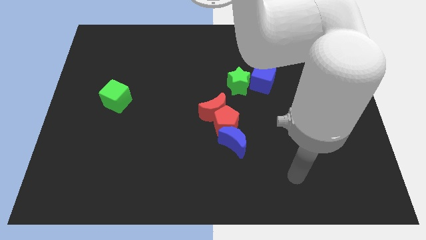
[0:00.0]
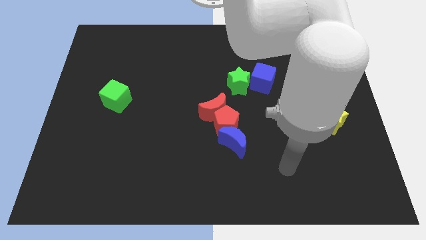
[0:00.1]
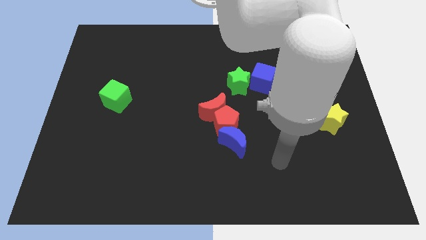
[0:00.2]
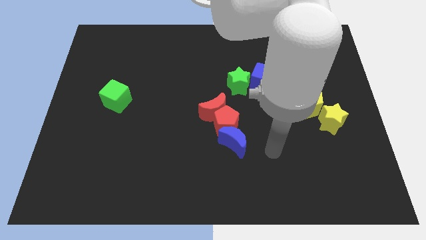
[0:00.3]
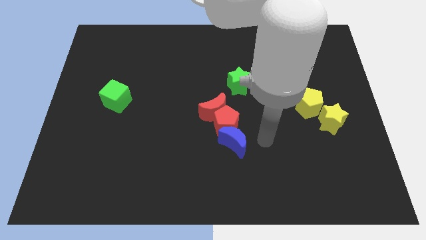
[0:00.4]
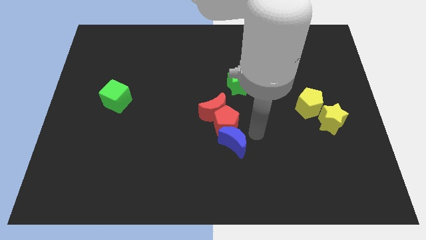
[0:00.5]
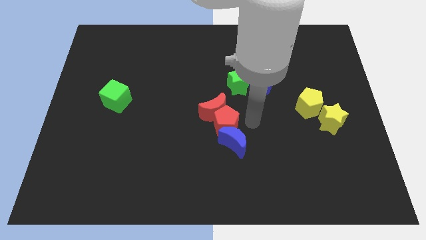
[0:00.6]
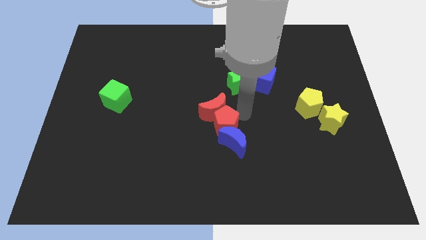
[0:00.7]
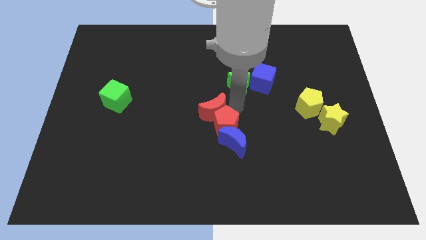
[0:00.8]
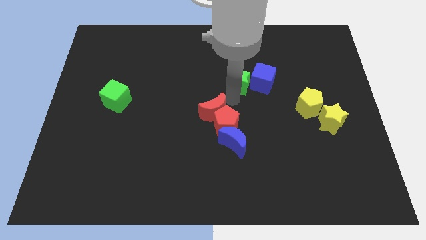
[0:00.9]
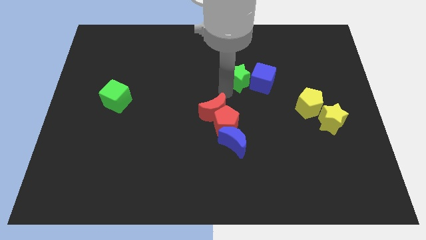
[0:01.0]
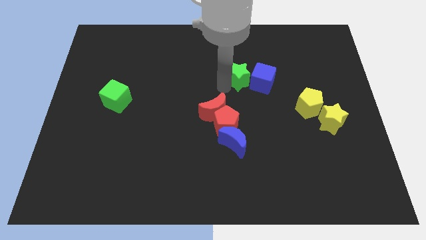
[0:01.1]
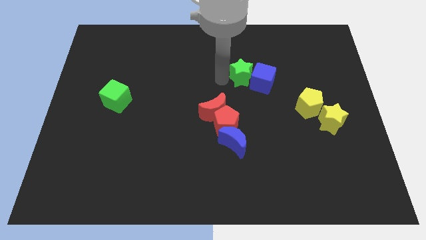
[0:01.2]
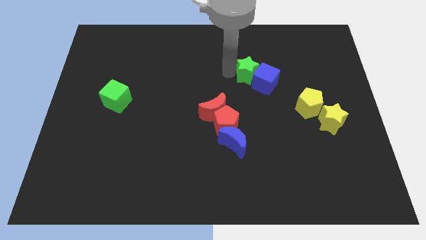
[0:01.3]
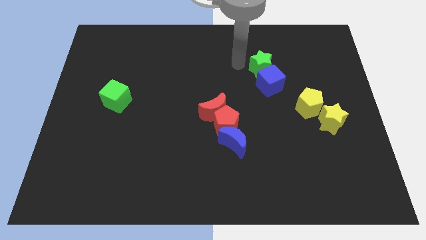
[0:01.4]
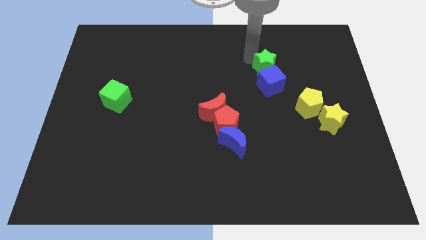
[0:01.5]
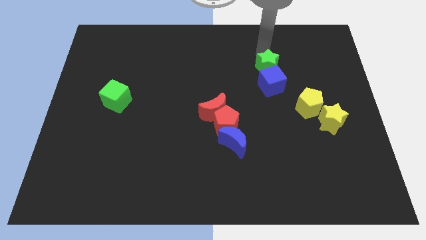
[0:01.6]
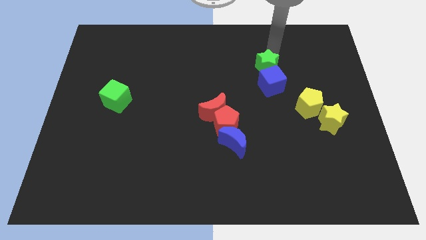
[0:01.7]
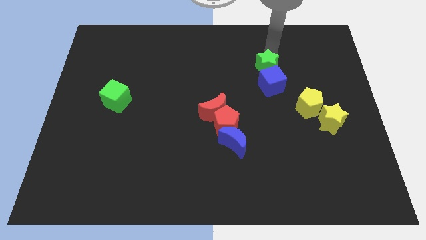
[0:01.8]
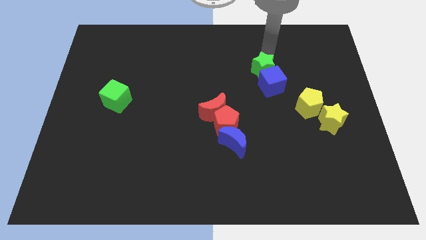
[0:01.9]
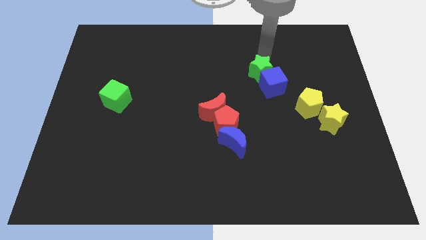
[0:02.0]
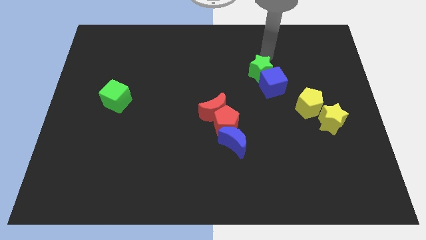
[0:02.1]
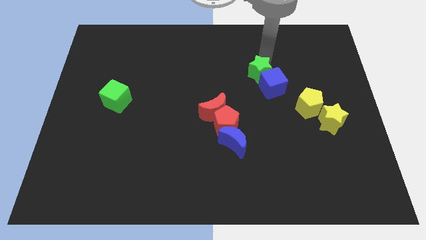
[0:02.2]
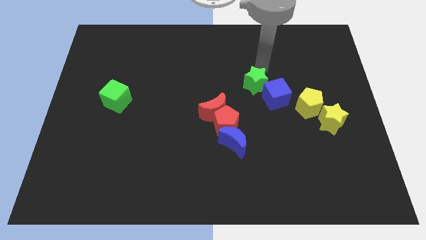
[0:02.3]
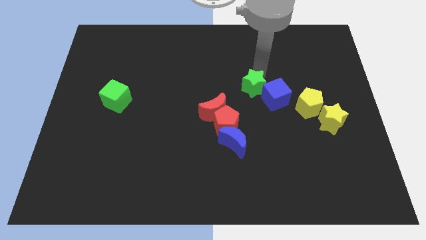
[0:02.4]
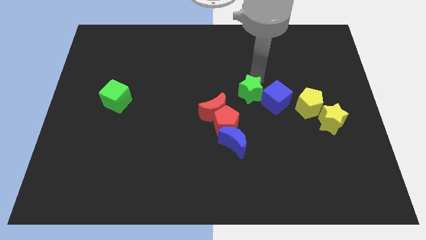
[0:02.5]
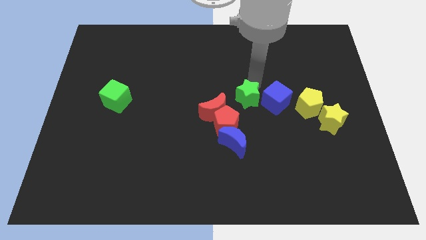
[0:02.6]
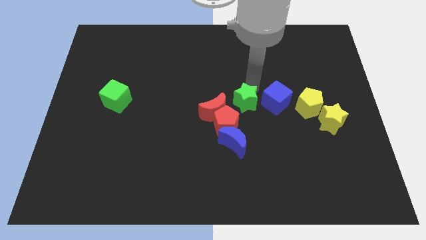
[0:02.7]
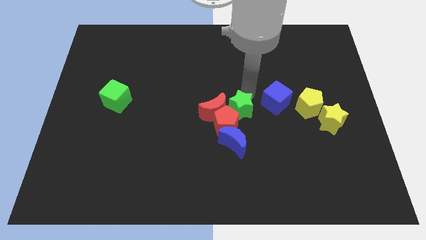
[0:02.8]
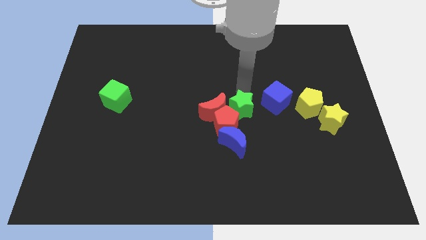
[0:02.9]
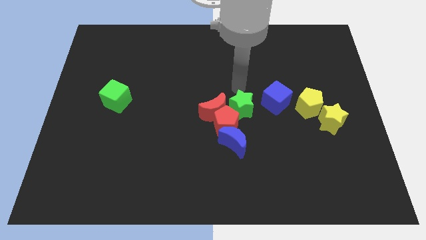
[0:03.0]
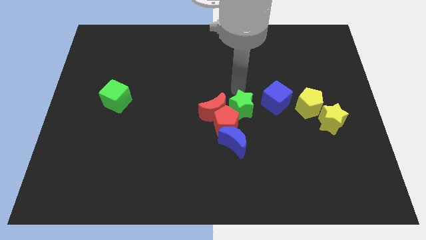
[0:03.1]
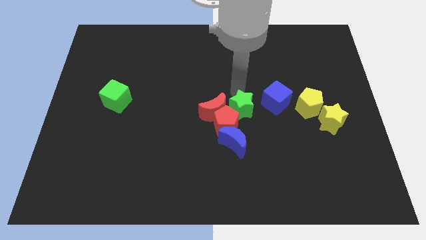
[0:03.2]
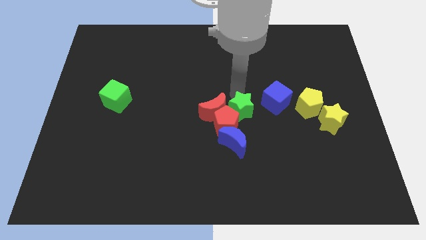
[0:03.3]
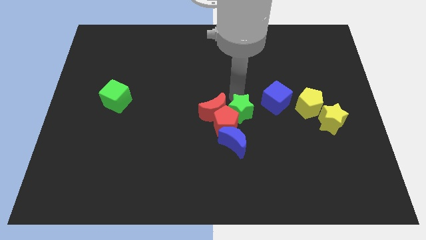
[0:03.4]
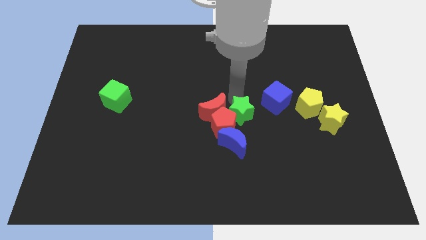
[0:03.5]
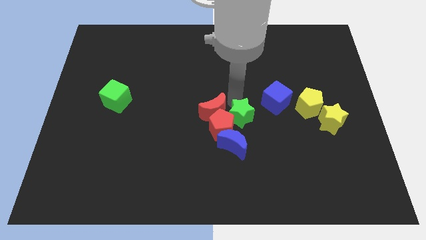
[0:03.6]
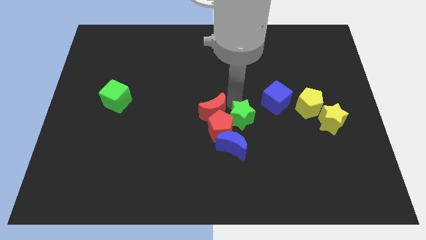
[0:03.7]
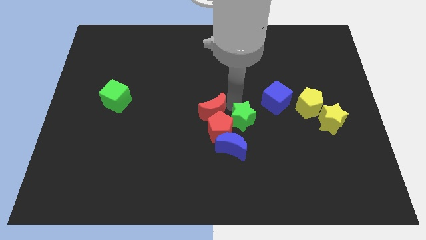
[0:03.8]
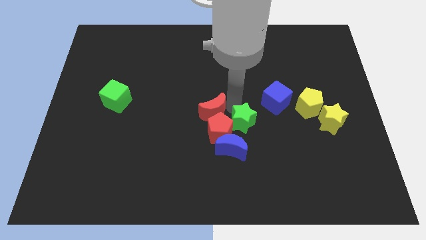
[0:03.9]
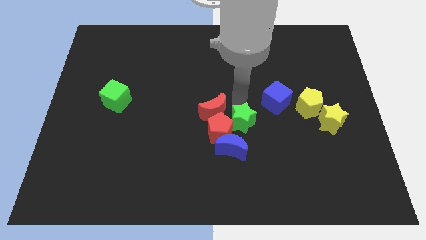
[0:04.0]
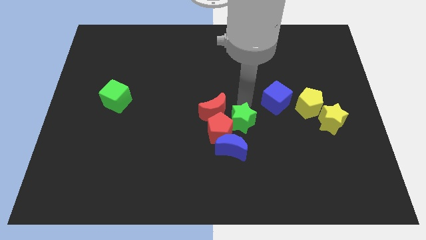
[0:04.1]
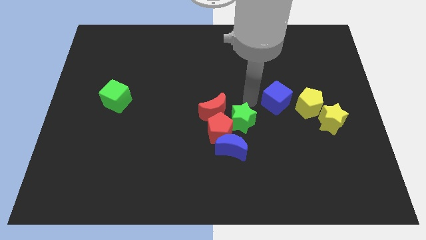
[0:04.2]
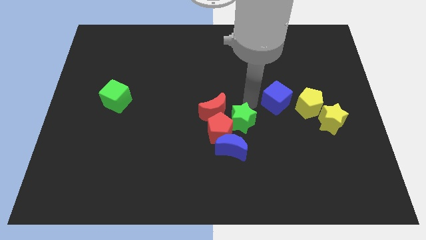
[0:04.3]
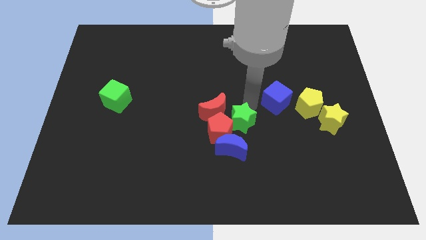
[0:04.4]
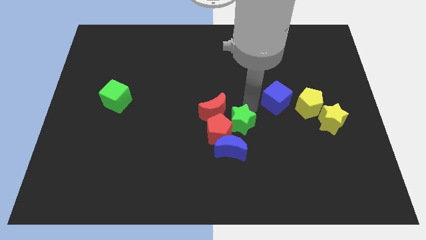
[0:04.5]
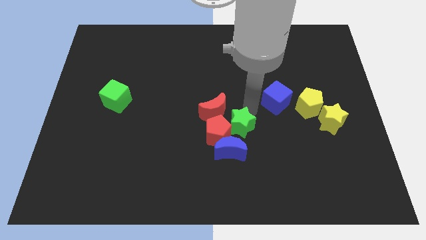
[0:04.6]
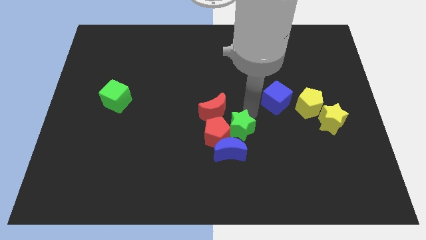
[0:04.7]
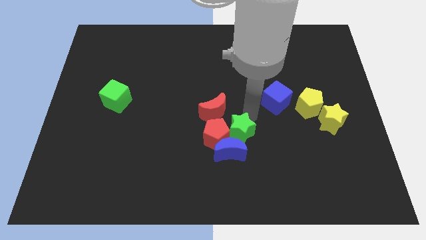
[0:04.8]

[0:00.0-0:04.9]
slide the green star next to the blue moon

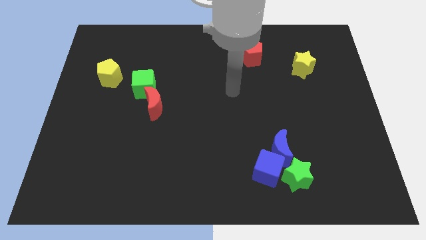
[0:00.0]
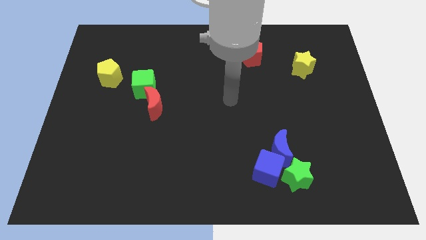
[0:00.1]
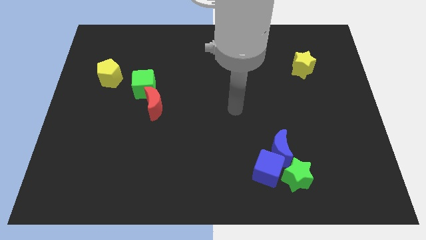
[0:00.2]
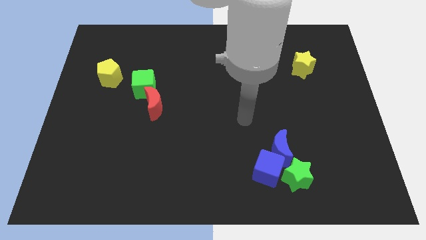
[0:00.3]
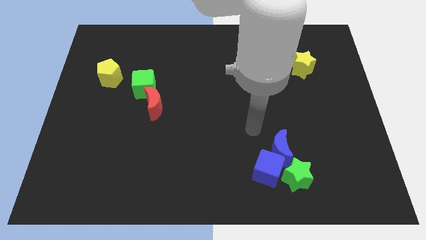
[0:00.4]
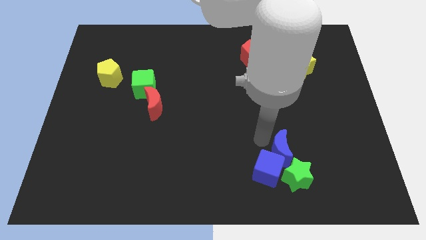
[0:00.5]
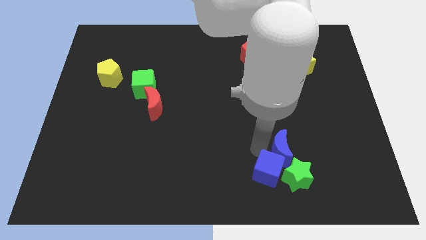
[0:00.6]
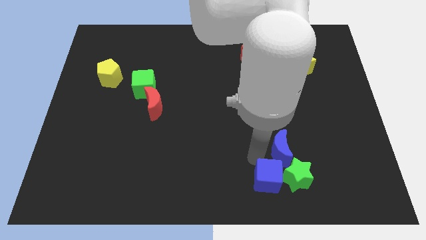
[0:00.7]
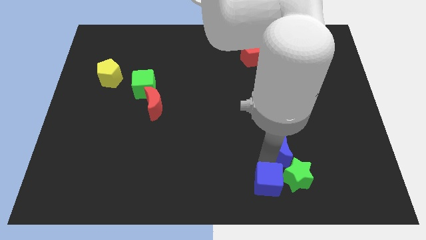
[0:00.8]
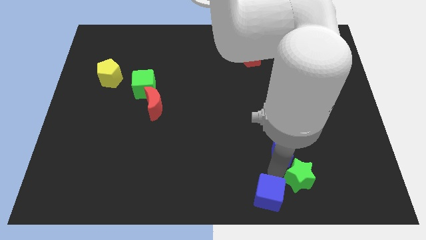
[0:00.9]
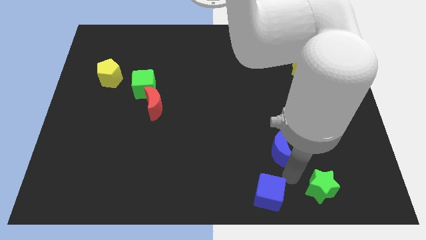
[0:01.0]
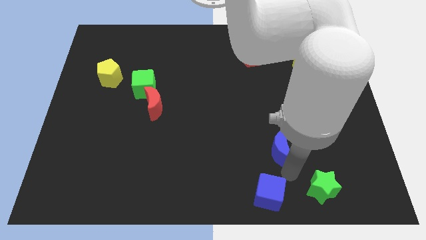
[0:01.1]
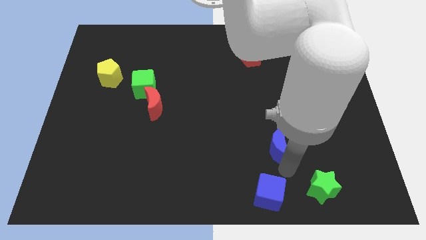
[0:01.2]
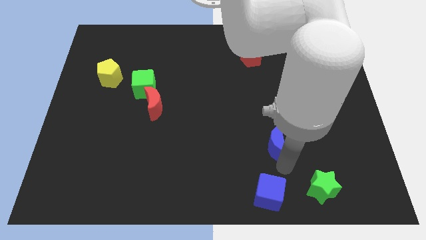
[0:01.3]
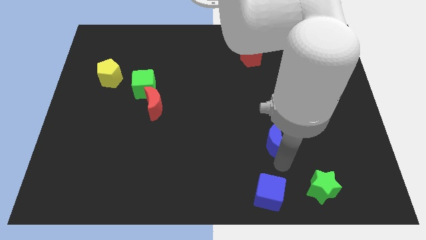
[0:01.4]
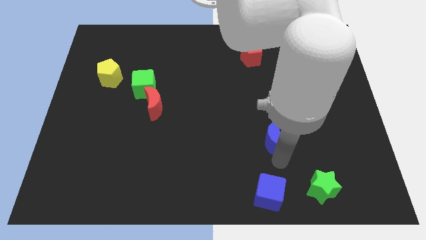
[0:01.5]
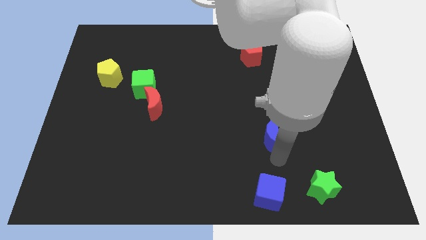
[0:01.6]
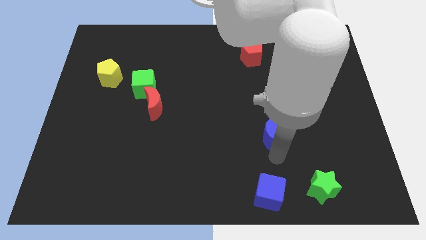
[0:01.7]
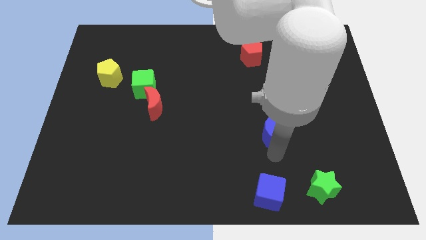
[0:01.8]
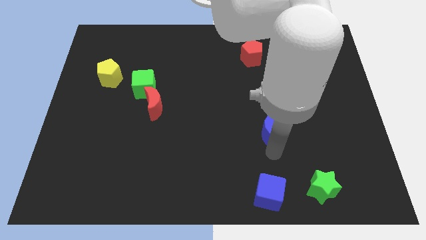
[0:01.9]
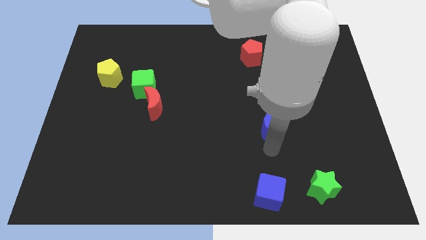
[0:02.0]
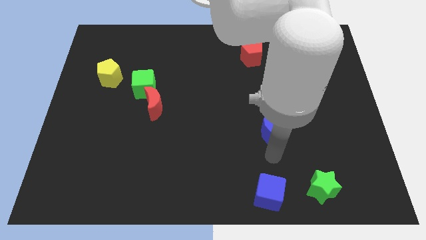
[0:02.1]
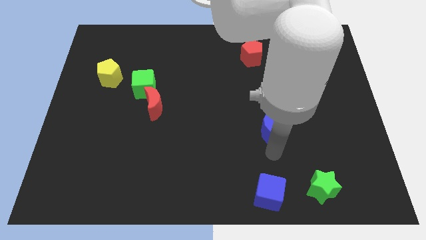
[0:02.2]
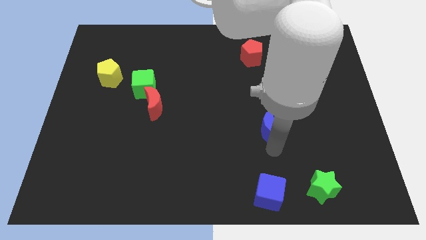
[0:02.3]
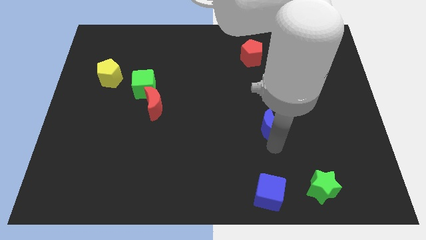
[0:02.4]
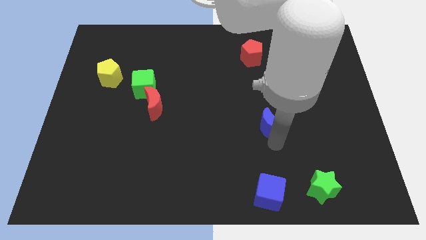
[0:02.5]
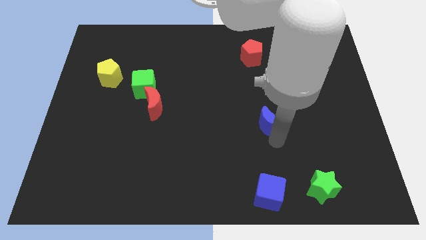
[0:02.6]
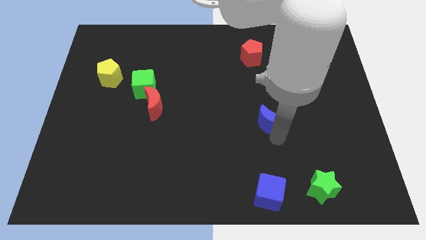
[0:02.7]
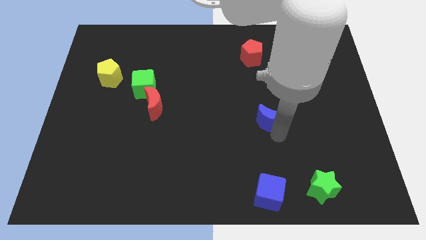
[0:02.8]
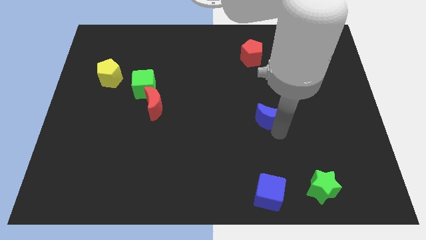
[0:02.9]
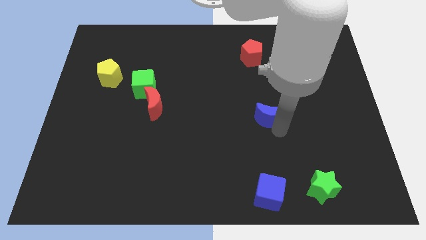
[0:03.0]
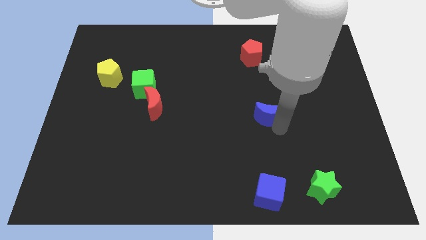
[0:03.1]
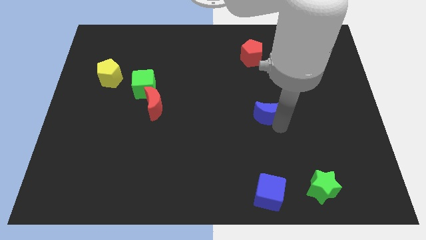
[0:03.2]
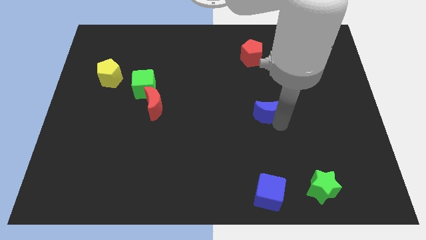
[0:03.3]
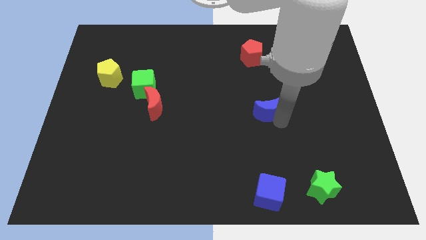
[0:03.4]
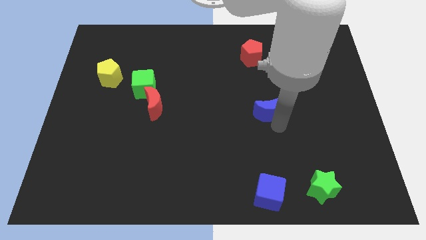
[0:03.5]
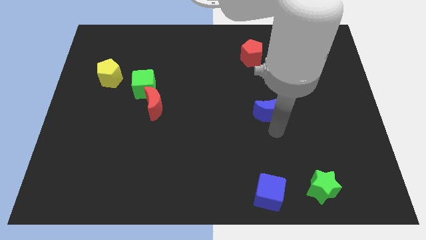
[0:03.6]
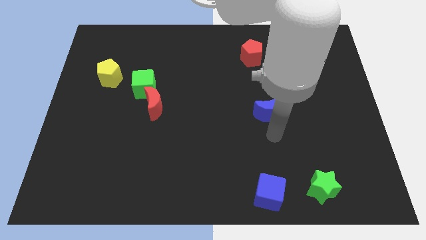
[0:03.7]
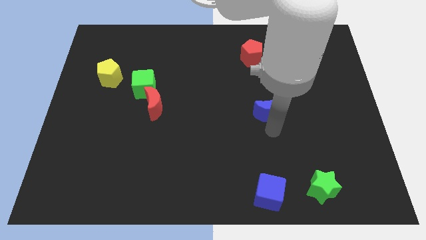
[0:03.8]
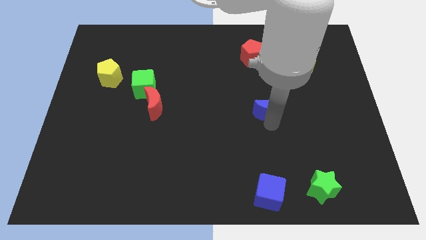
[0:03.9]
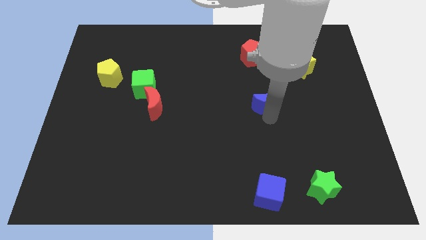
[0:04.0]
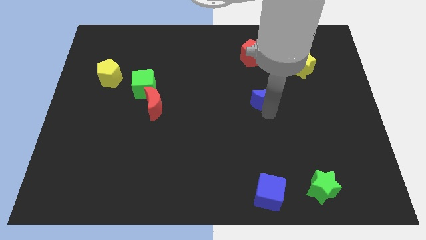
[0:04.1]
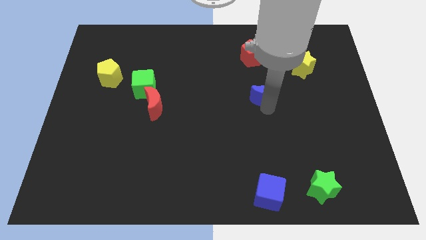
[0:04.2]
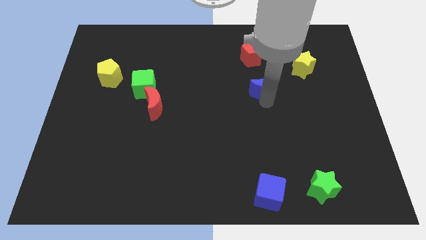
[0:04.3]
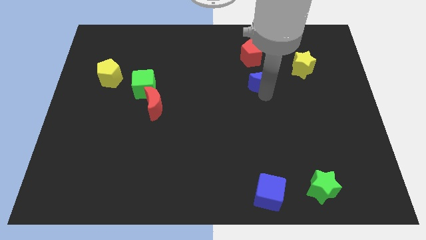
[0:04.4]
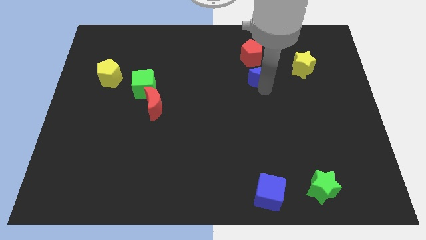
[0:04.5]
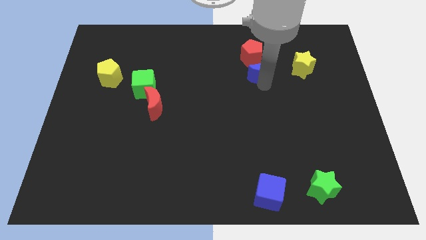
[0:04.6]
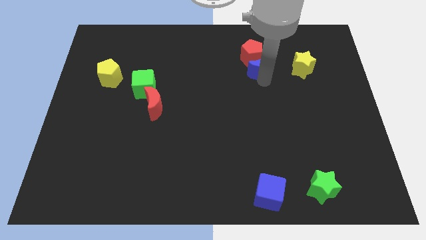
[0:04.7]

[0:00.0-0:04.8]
put the blue moon next to the red pentagon
